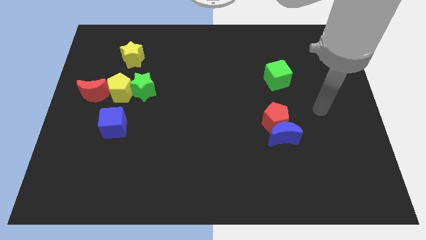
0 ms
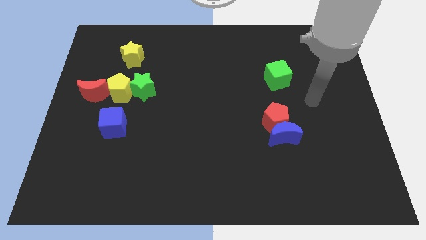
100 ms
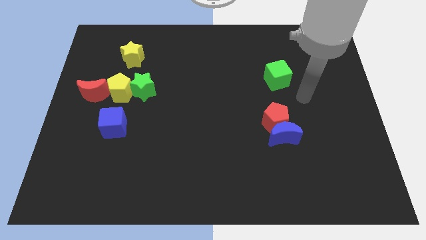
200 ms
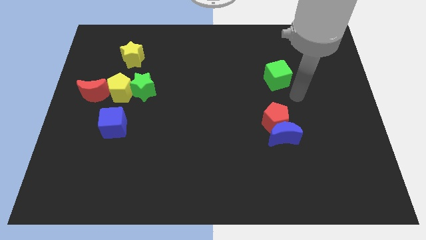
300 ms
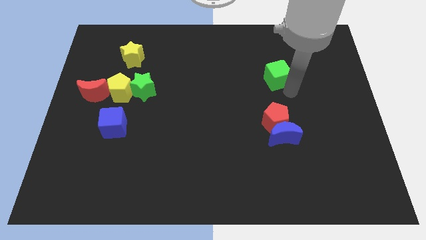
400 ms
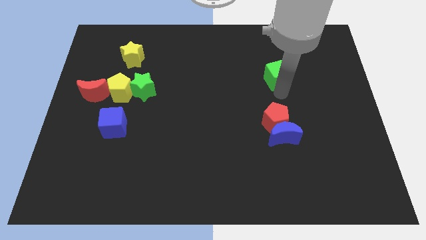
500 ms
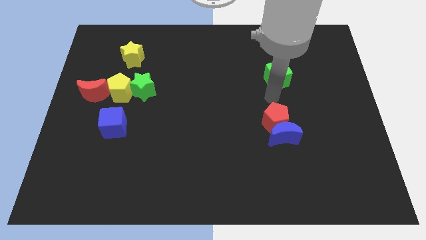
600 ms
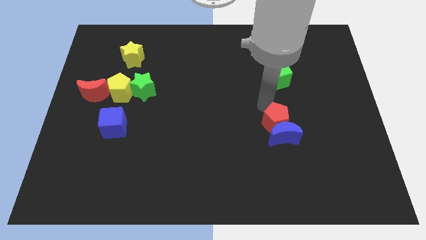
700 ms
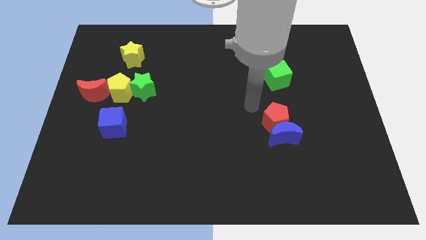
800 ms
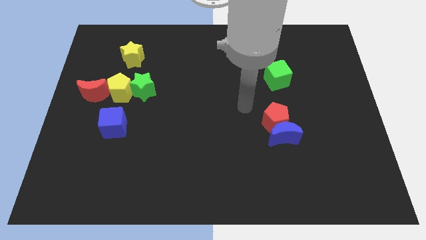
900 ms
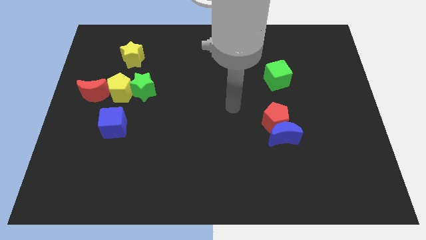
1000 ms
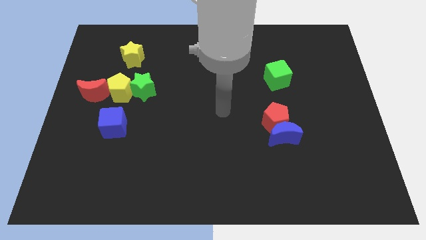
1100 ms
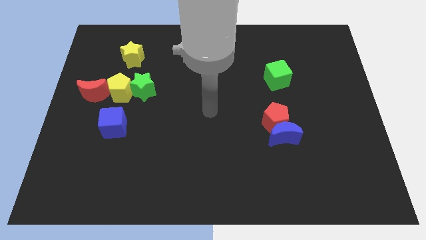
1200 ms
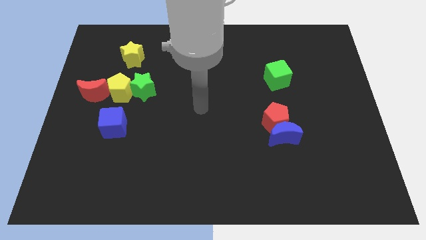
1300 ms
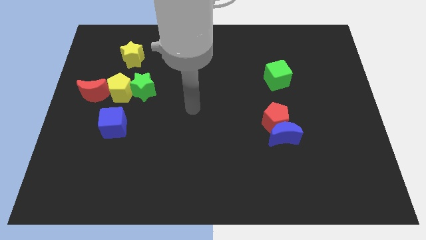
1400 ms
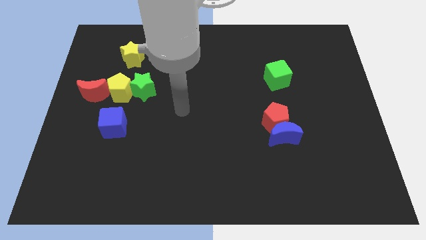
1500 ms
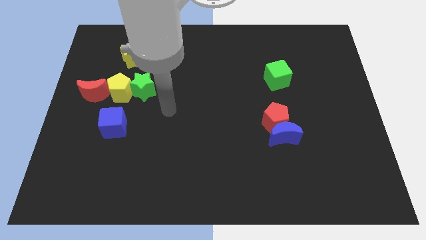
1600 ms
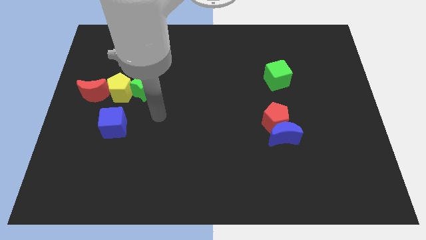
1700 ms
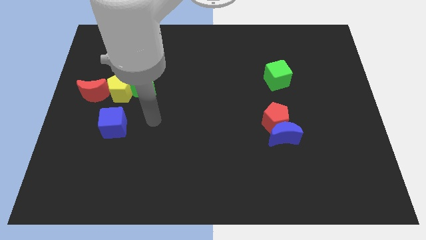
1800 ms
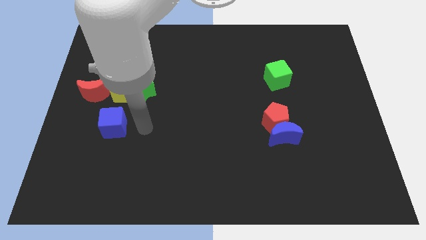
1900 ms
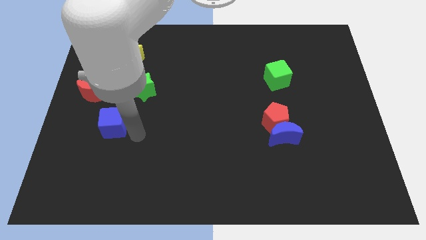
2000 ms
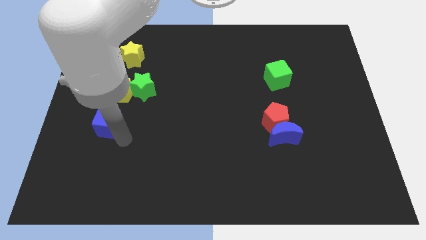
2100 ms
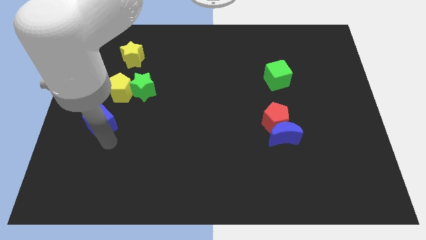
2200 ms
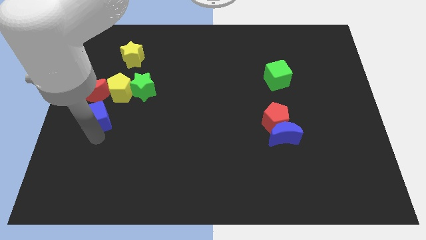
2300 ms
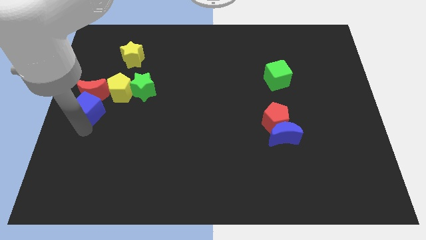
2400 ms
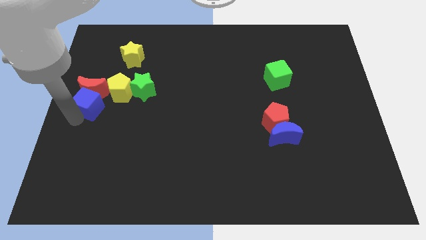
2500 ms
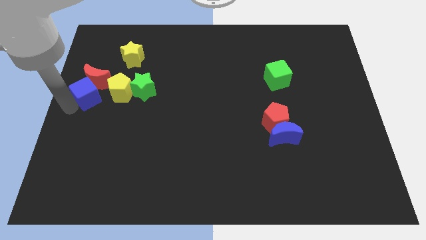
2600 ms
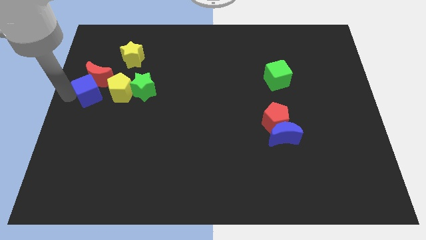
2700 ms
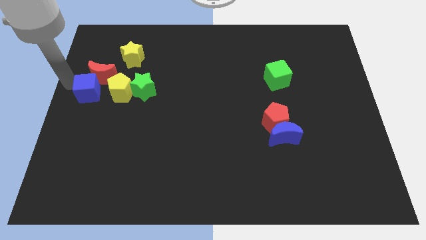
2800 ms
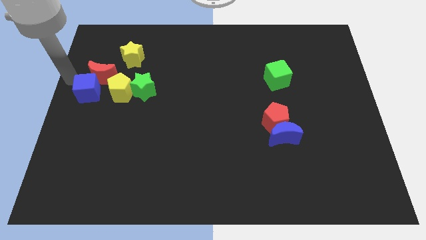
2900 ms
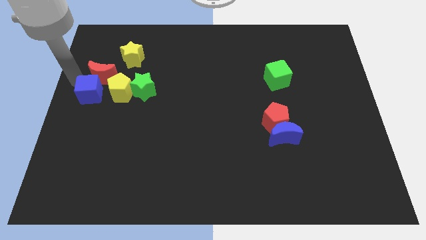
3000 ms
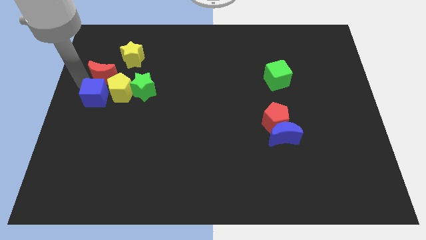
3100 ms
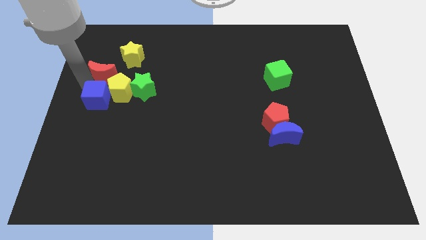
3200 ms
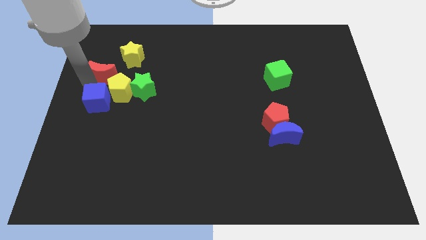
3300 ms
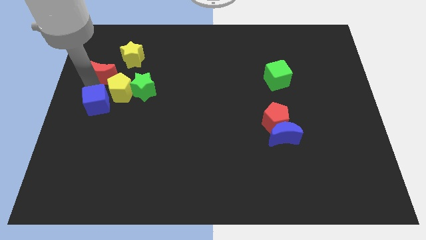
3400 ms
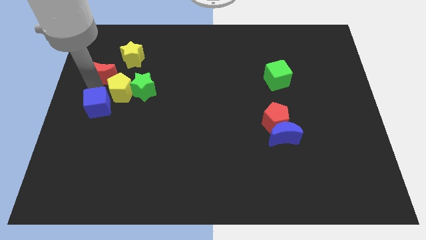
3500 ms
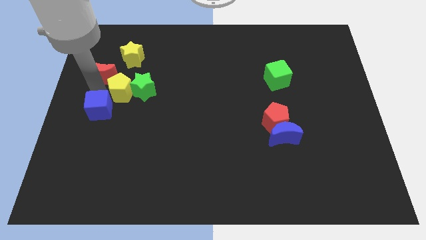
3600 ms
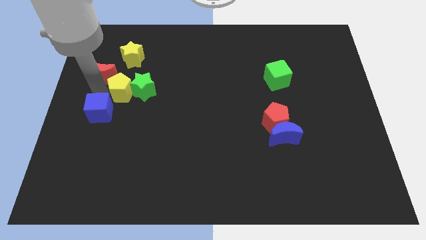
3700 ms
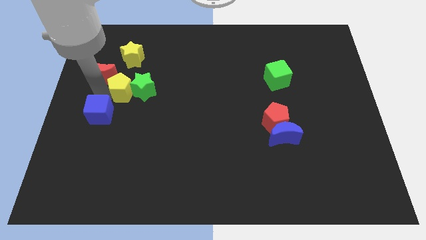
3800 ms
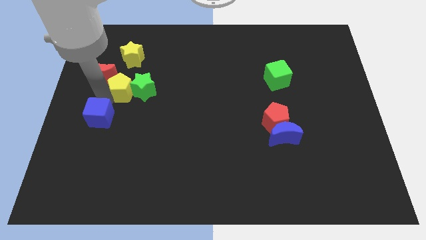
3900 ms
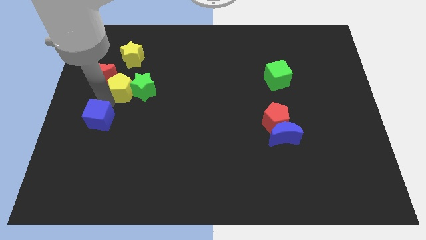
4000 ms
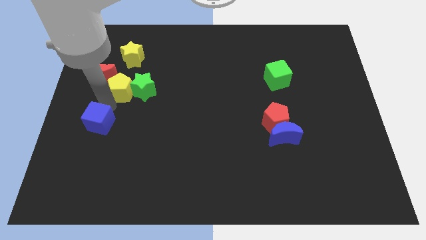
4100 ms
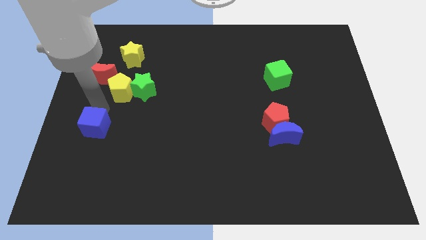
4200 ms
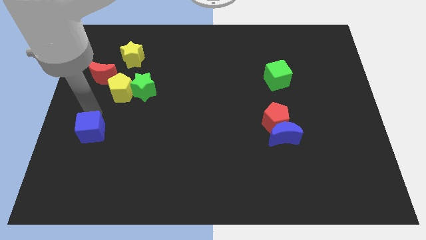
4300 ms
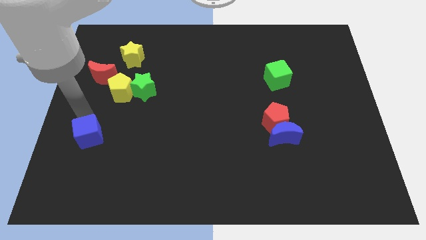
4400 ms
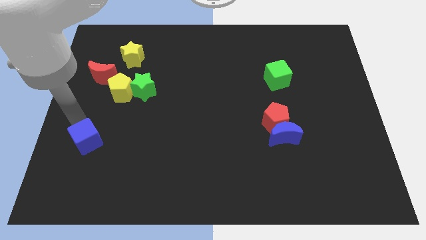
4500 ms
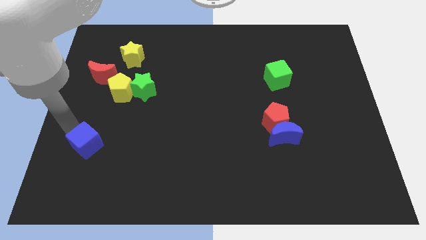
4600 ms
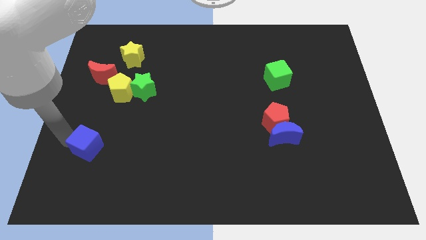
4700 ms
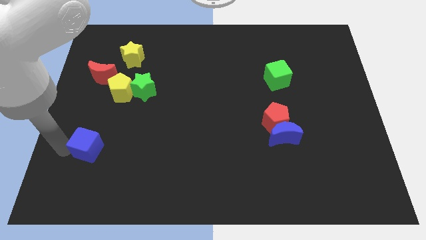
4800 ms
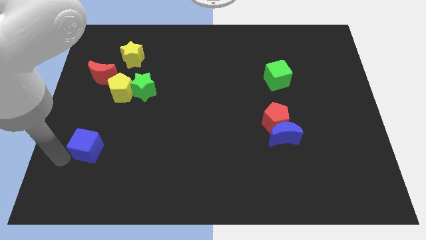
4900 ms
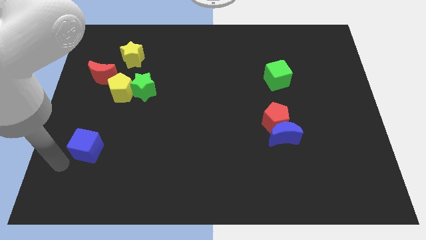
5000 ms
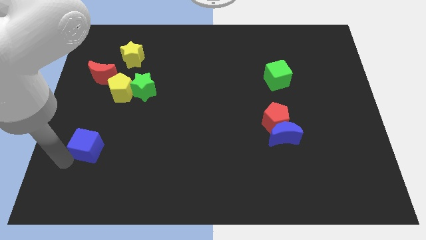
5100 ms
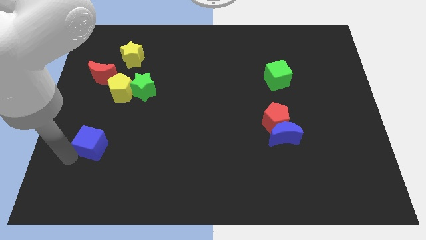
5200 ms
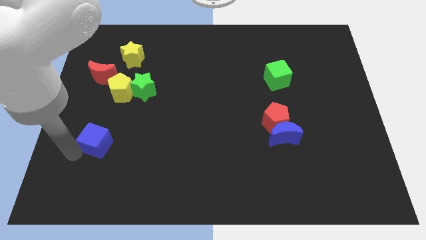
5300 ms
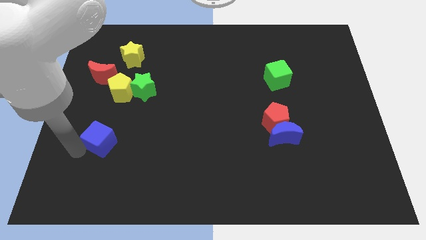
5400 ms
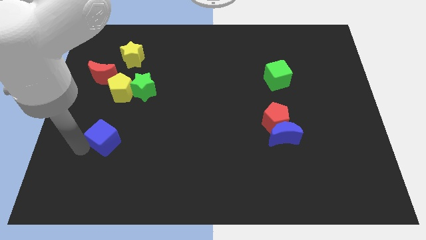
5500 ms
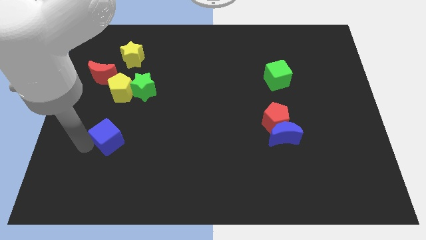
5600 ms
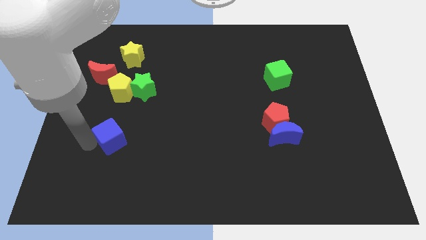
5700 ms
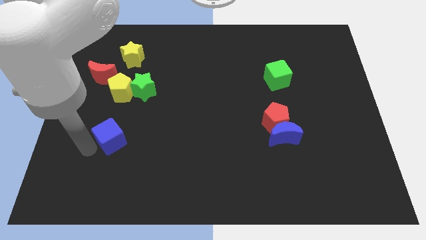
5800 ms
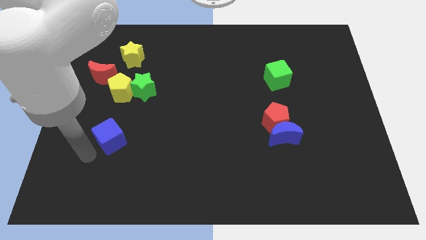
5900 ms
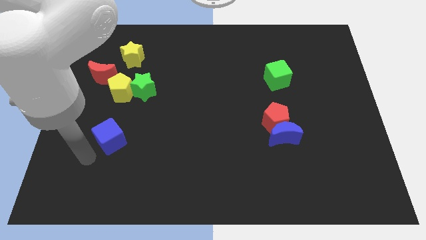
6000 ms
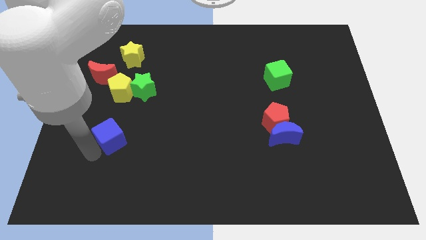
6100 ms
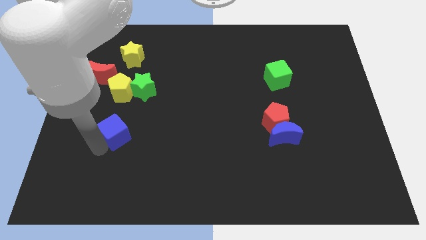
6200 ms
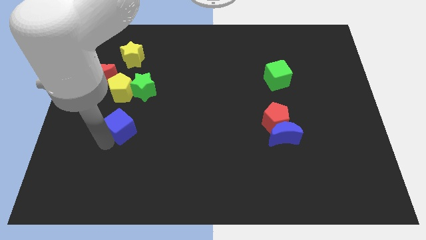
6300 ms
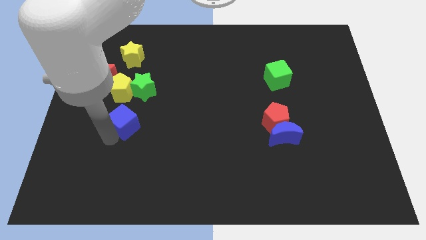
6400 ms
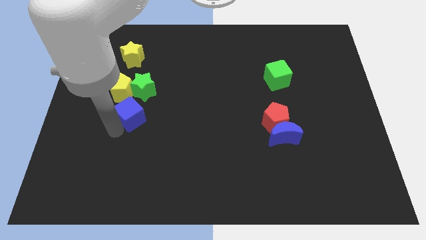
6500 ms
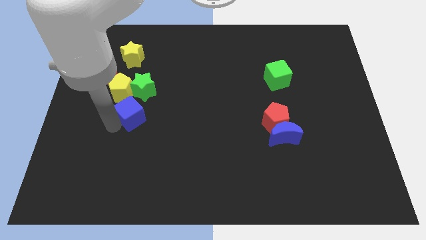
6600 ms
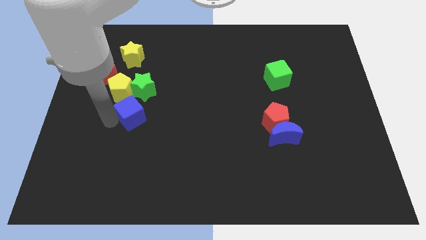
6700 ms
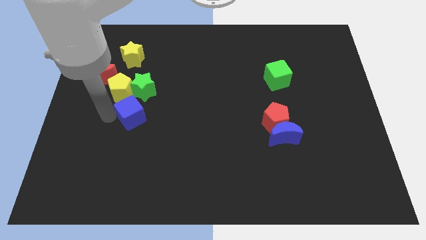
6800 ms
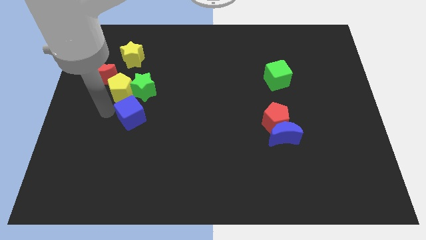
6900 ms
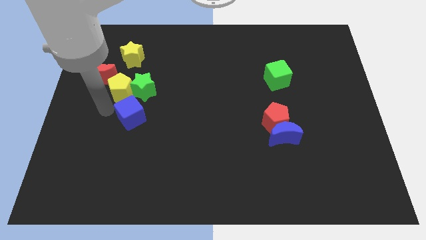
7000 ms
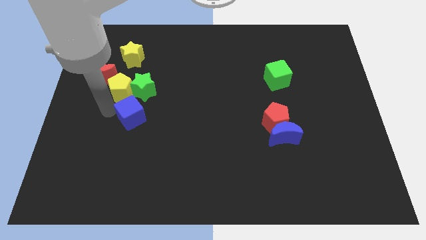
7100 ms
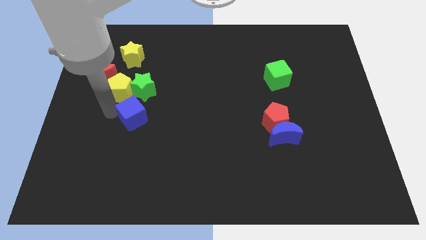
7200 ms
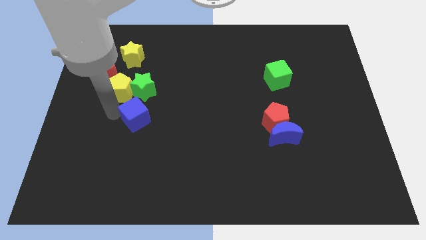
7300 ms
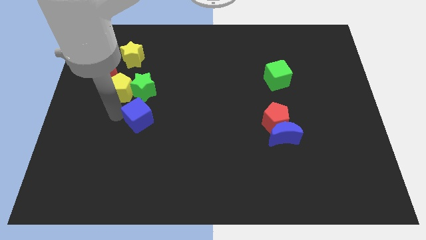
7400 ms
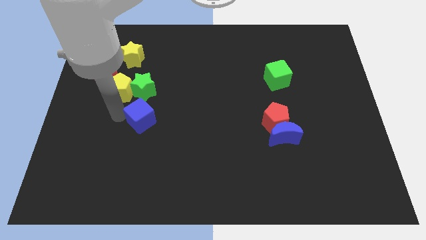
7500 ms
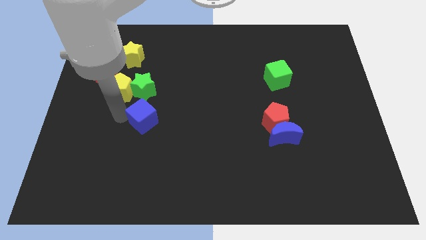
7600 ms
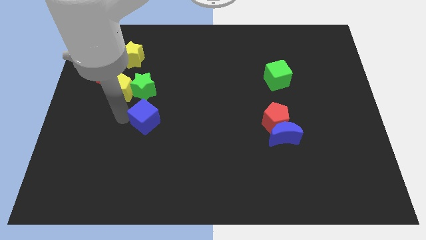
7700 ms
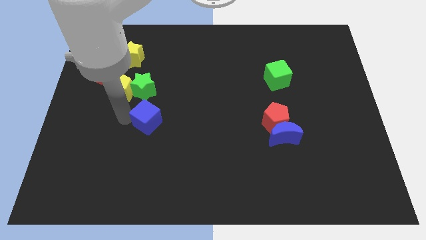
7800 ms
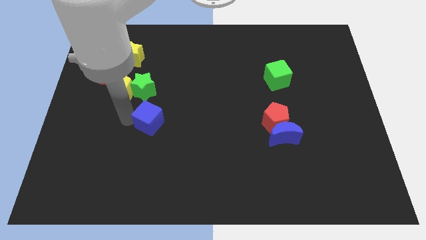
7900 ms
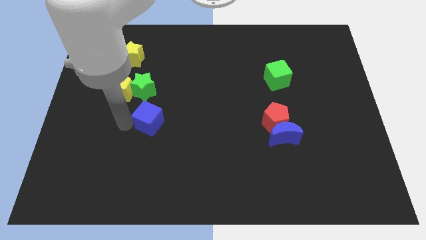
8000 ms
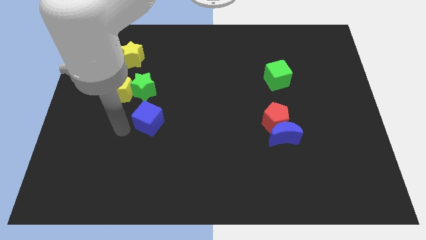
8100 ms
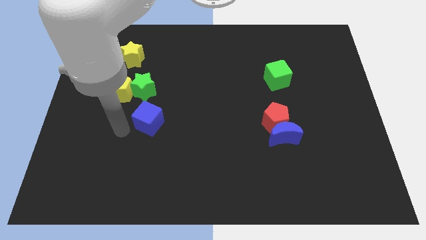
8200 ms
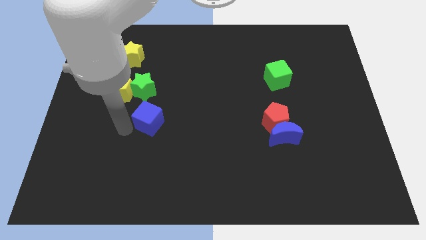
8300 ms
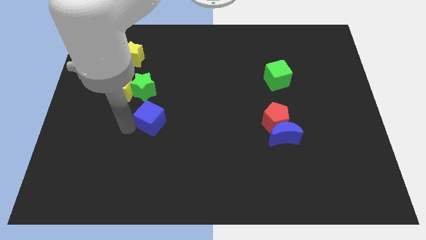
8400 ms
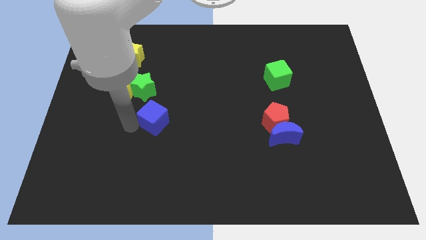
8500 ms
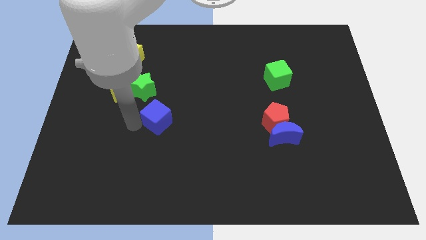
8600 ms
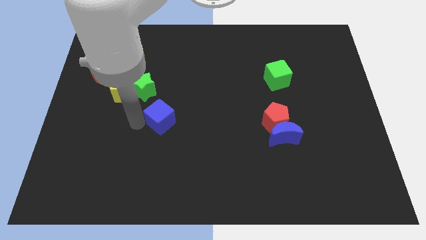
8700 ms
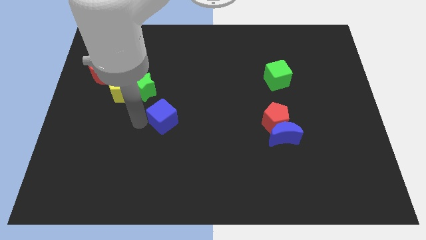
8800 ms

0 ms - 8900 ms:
push the blue cube to the middle of the board
